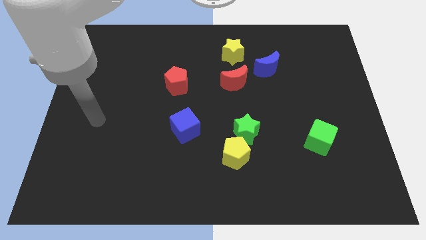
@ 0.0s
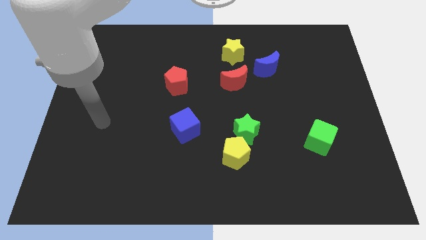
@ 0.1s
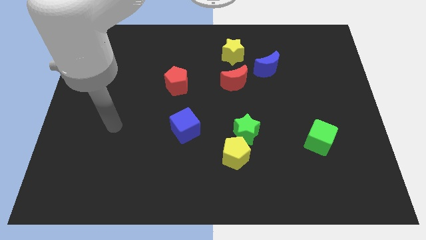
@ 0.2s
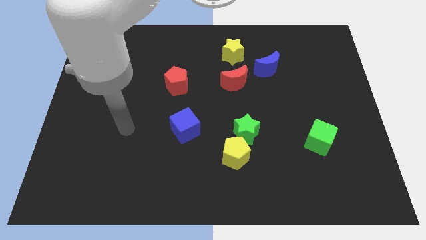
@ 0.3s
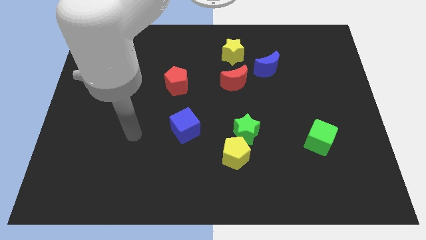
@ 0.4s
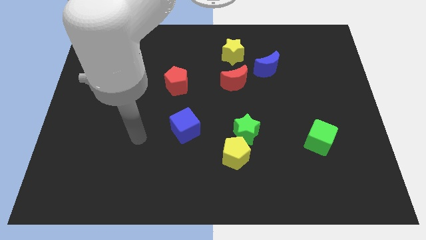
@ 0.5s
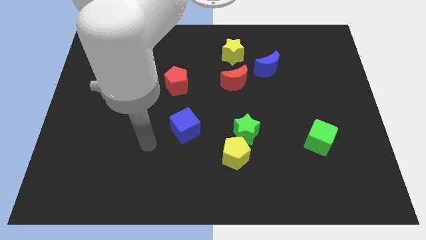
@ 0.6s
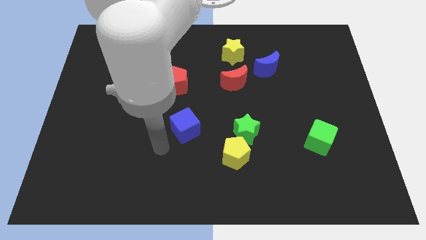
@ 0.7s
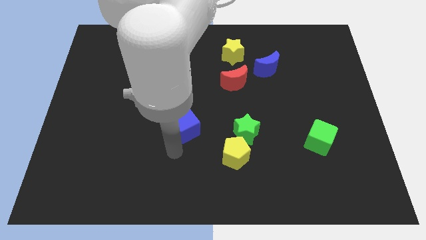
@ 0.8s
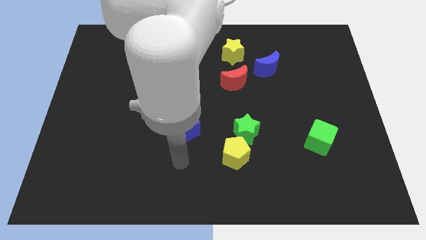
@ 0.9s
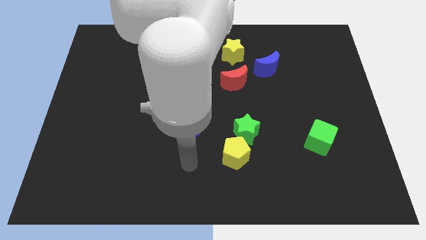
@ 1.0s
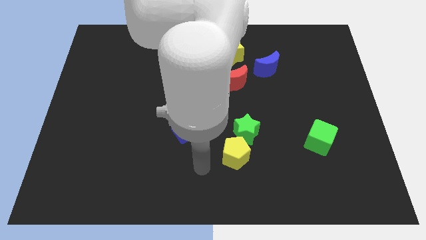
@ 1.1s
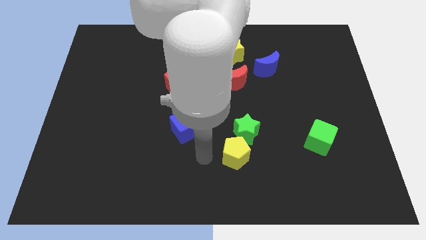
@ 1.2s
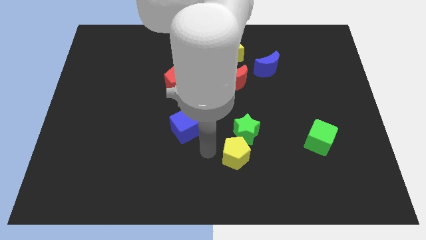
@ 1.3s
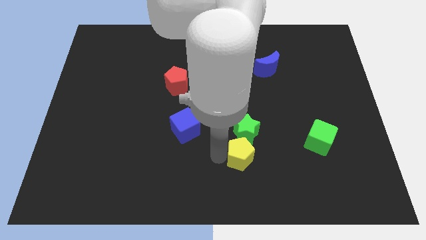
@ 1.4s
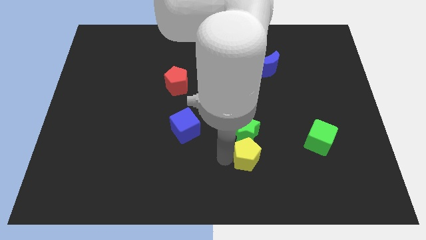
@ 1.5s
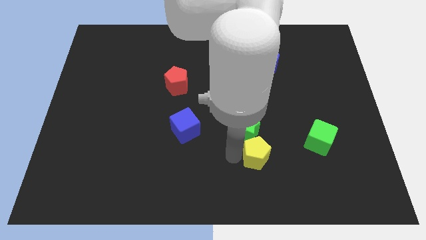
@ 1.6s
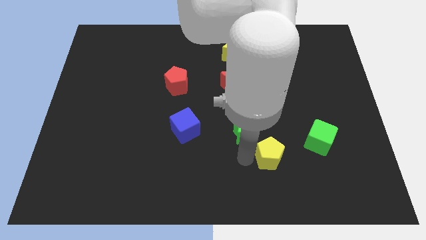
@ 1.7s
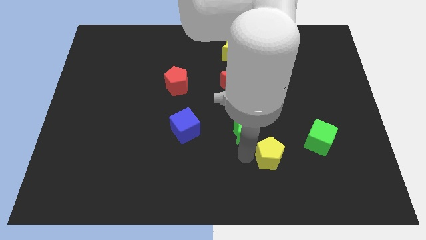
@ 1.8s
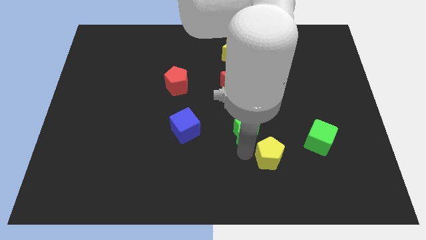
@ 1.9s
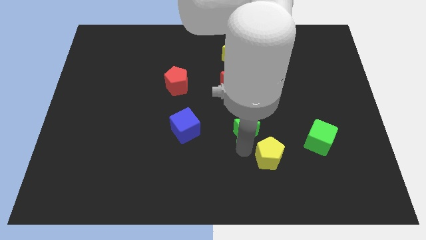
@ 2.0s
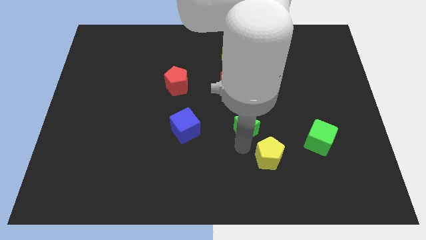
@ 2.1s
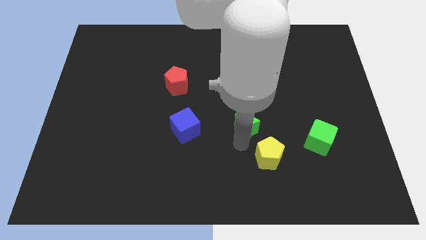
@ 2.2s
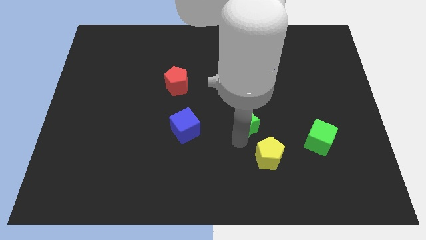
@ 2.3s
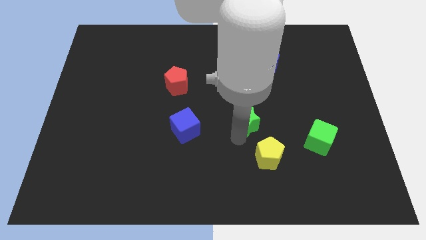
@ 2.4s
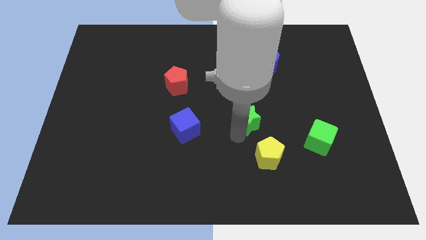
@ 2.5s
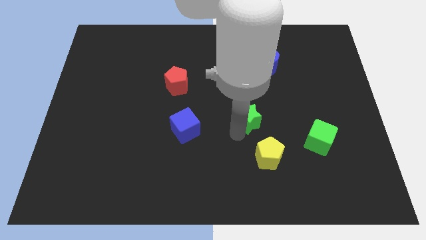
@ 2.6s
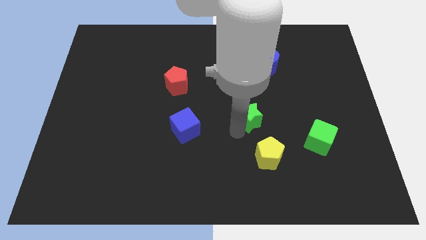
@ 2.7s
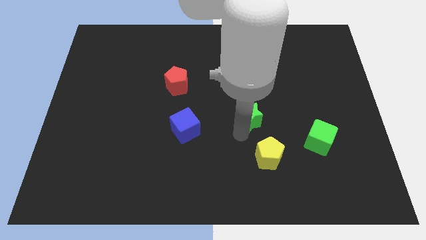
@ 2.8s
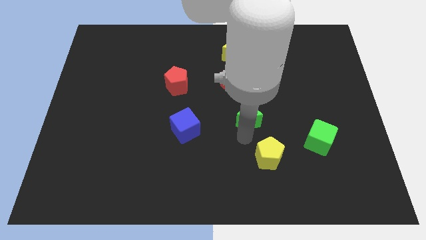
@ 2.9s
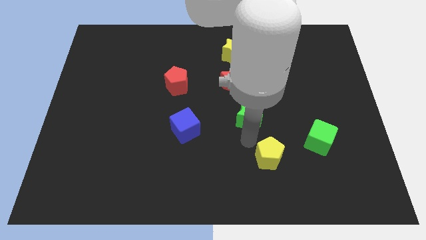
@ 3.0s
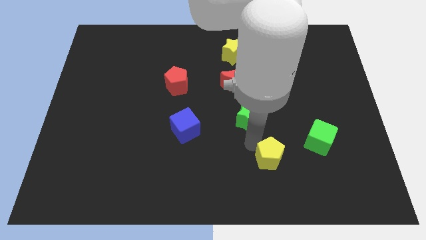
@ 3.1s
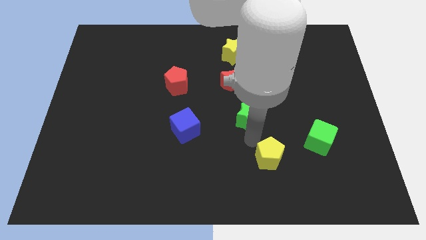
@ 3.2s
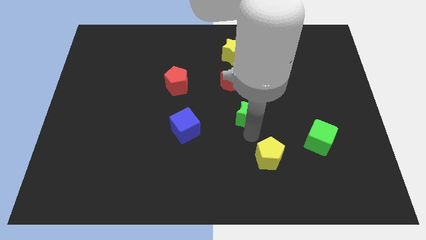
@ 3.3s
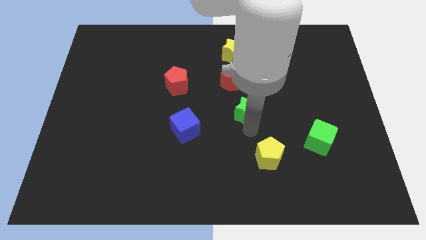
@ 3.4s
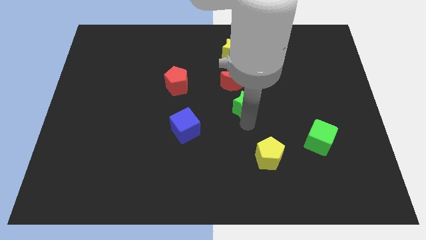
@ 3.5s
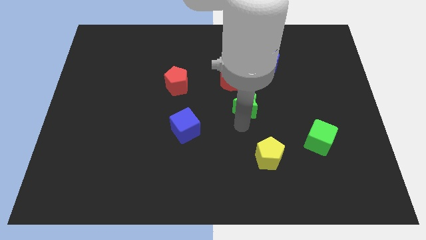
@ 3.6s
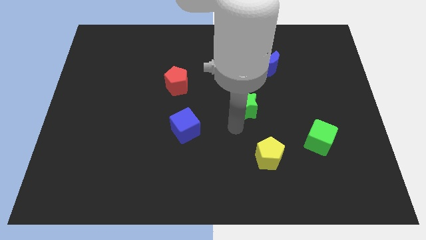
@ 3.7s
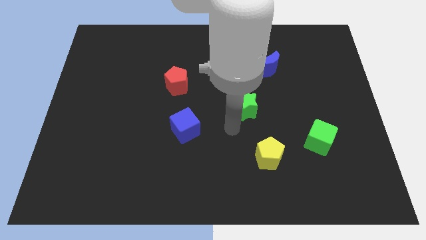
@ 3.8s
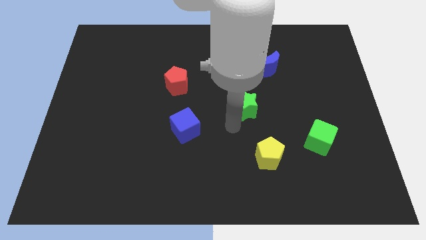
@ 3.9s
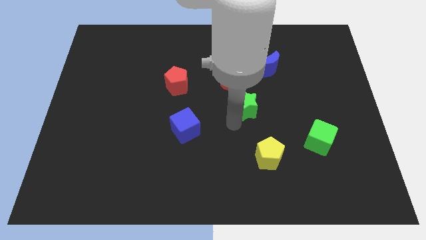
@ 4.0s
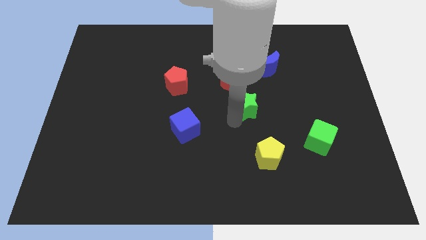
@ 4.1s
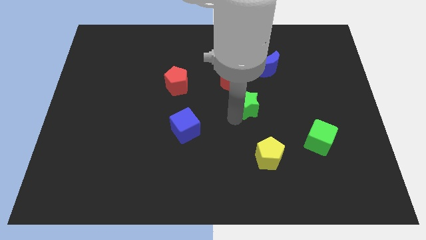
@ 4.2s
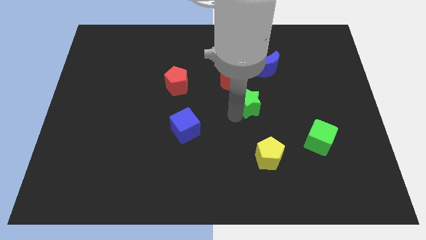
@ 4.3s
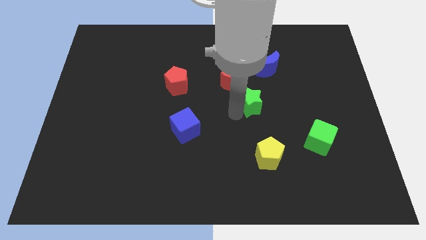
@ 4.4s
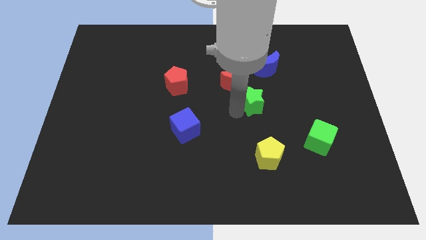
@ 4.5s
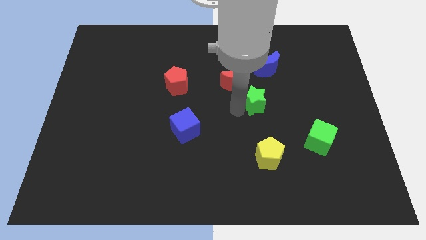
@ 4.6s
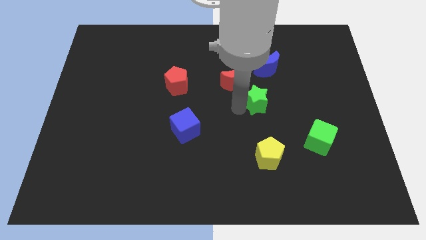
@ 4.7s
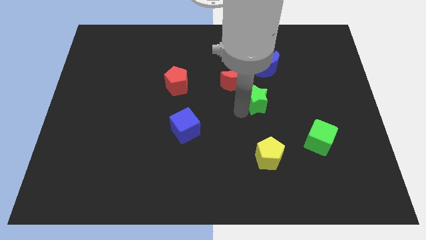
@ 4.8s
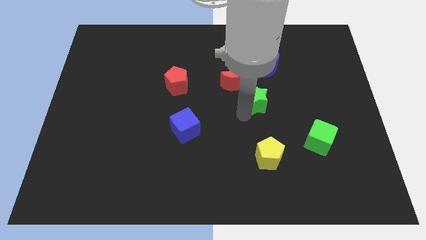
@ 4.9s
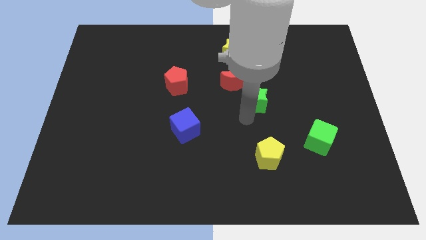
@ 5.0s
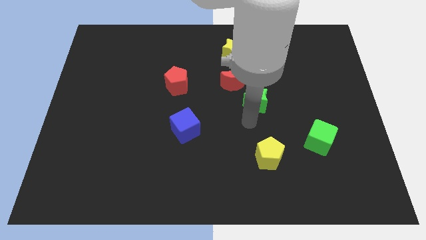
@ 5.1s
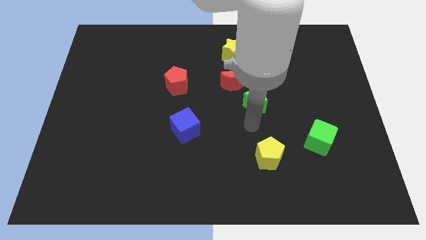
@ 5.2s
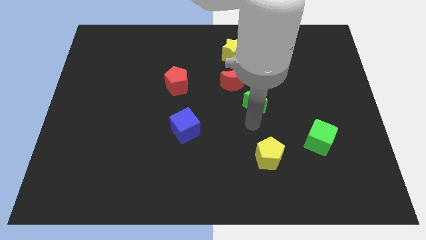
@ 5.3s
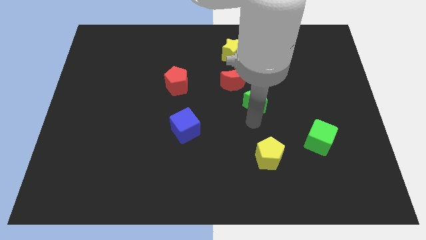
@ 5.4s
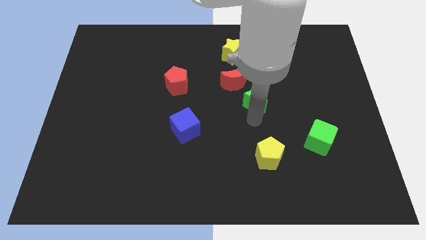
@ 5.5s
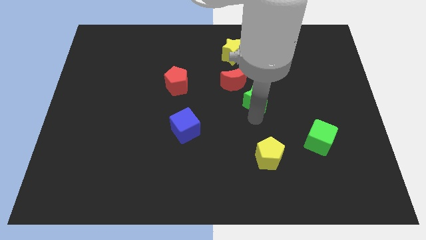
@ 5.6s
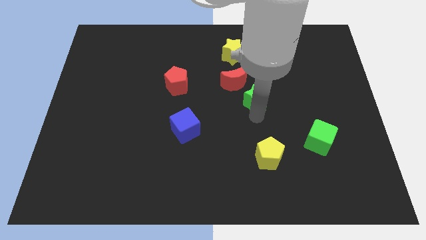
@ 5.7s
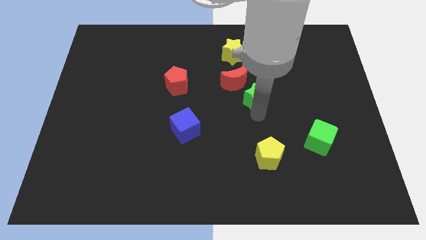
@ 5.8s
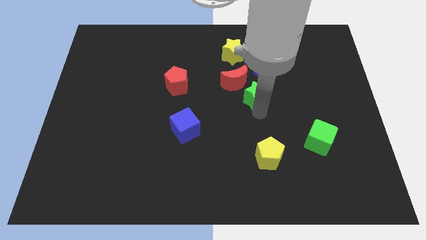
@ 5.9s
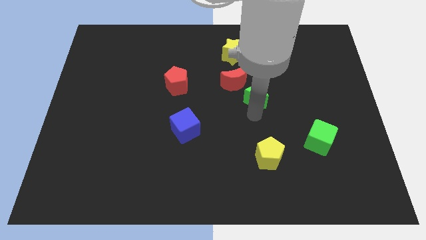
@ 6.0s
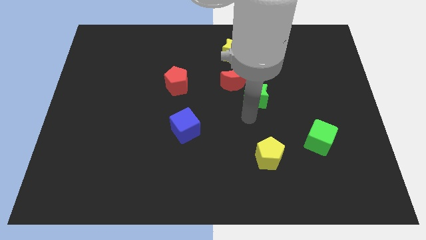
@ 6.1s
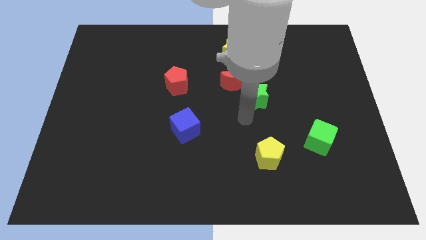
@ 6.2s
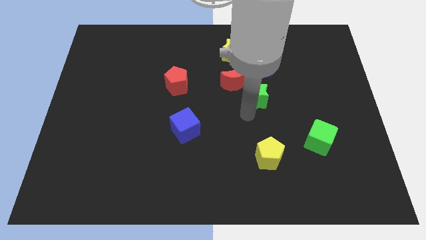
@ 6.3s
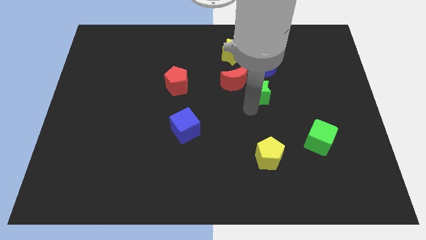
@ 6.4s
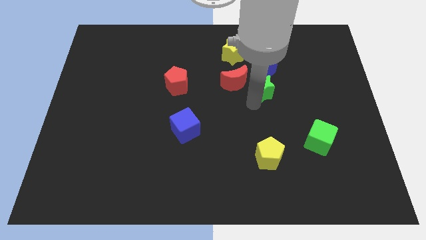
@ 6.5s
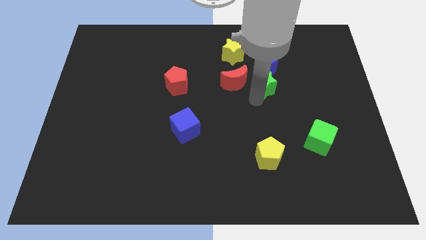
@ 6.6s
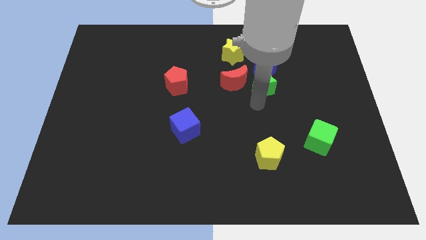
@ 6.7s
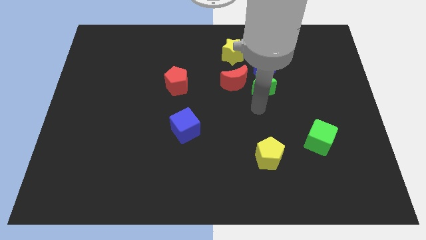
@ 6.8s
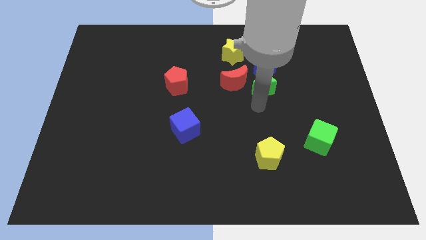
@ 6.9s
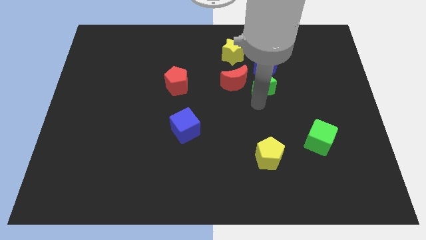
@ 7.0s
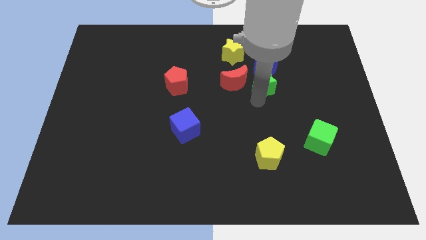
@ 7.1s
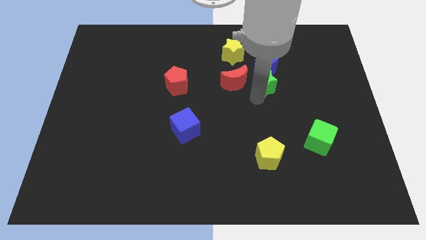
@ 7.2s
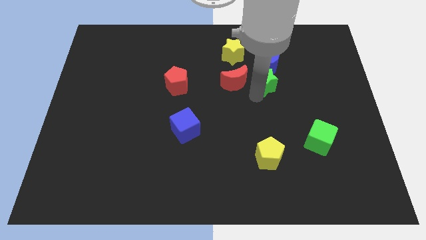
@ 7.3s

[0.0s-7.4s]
move the green star close to the blue moon
